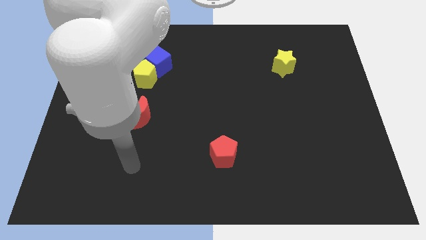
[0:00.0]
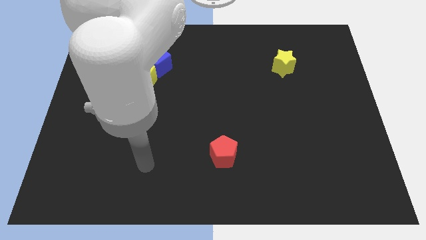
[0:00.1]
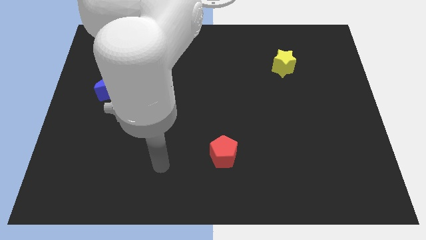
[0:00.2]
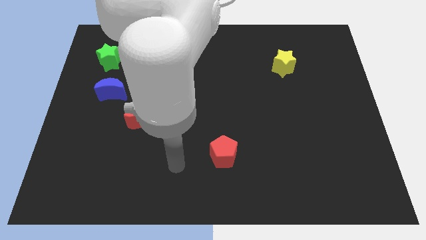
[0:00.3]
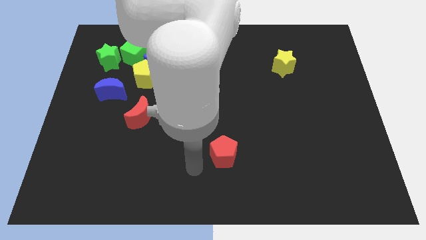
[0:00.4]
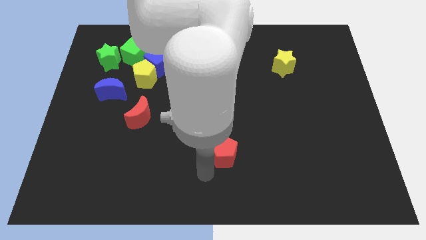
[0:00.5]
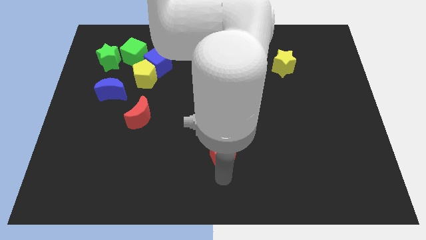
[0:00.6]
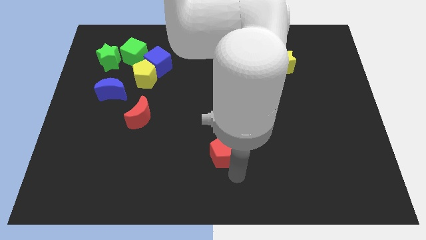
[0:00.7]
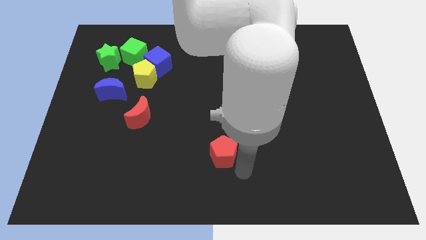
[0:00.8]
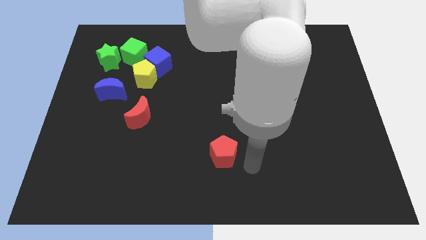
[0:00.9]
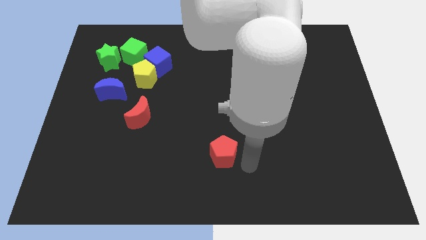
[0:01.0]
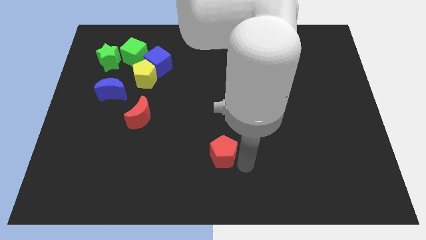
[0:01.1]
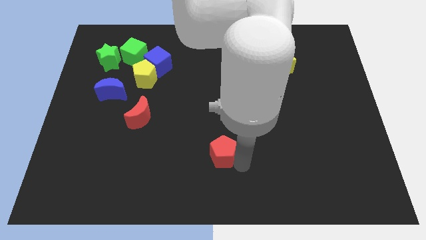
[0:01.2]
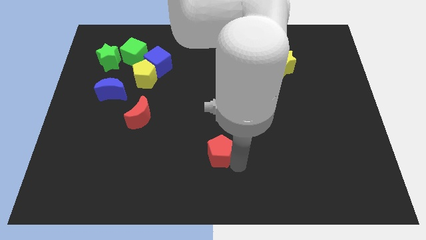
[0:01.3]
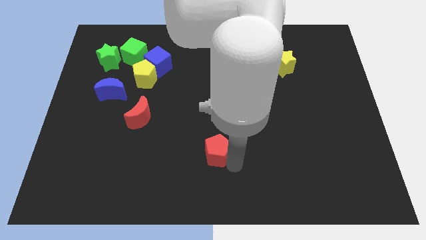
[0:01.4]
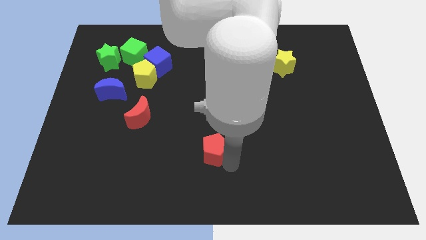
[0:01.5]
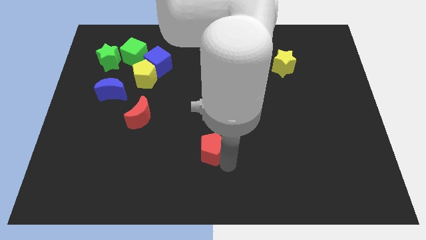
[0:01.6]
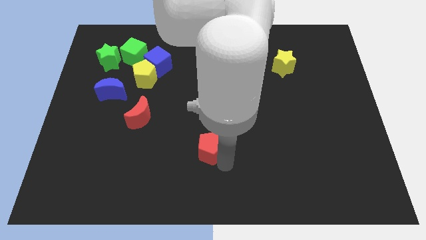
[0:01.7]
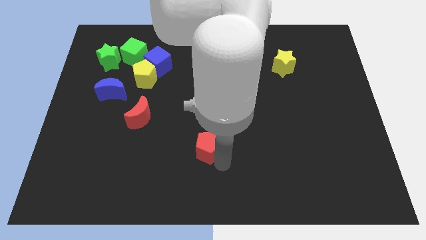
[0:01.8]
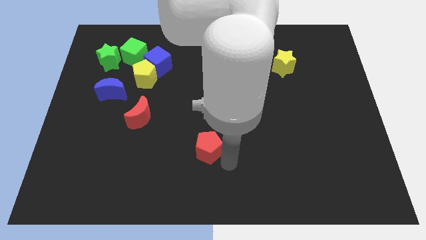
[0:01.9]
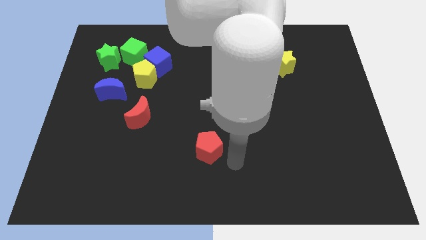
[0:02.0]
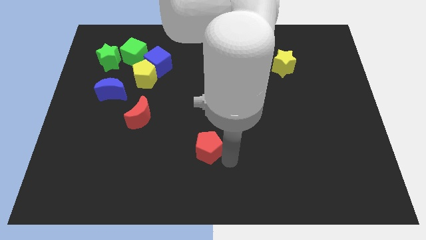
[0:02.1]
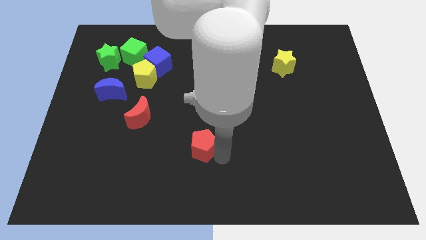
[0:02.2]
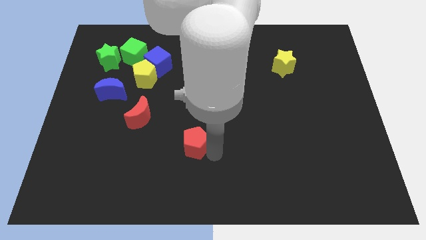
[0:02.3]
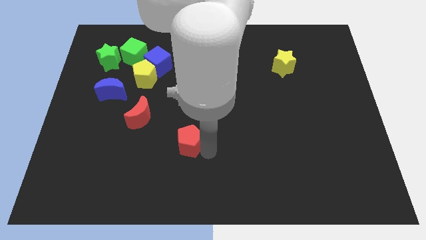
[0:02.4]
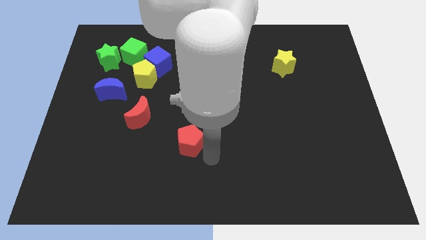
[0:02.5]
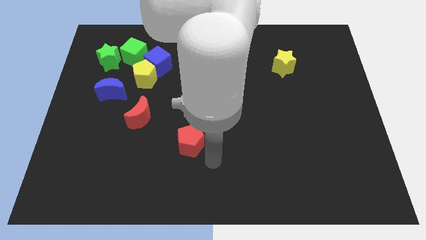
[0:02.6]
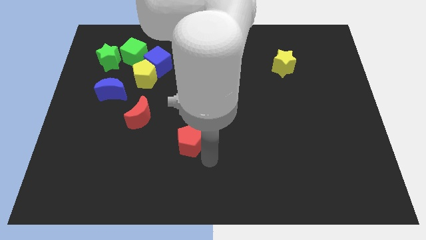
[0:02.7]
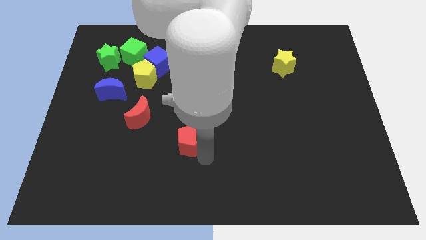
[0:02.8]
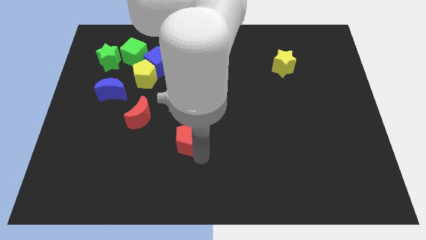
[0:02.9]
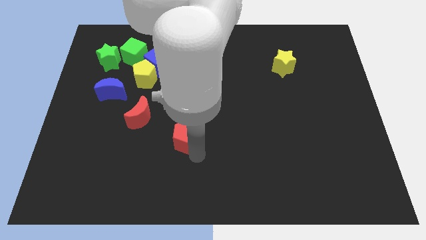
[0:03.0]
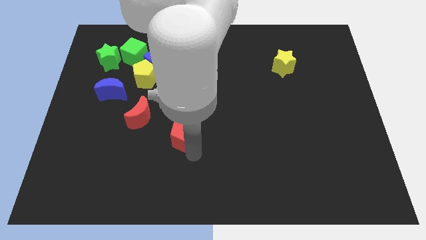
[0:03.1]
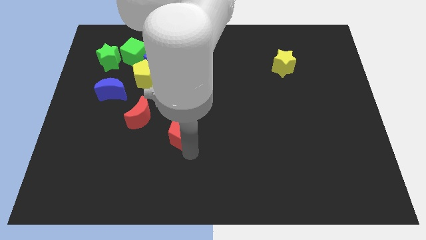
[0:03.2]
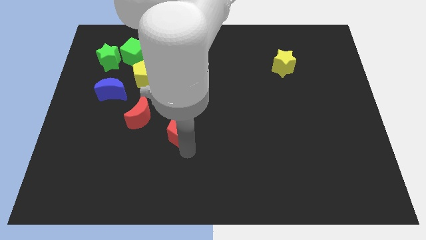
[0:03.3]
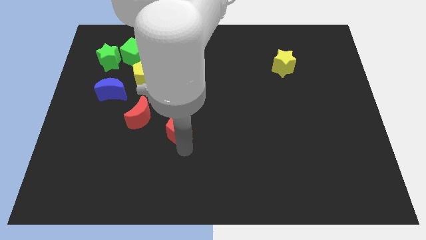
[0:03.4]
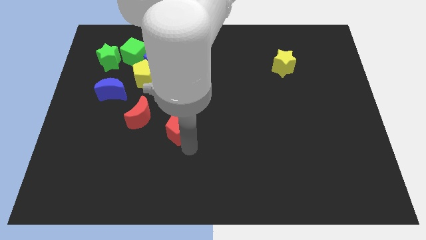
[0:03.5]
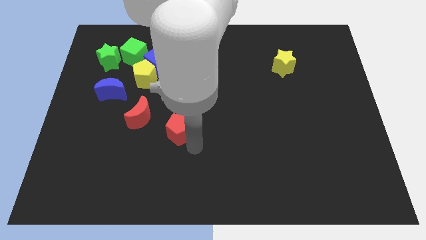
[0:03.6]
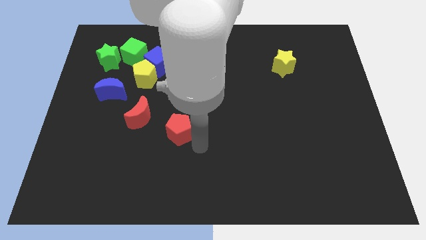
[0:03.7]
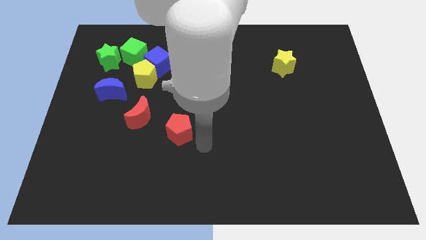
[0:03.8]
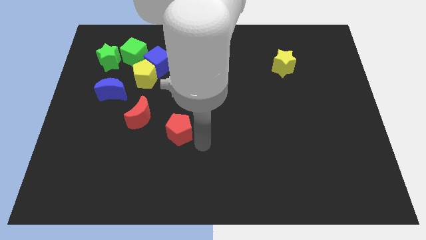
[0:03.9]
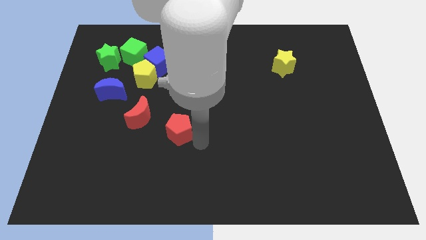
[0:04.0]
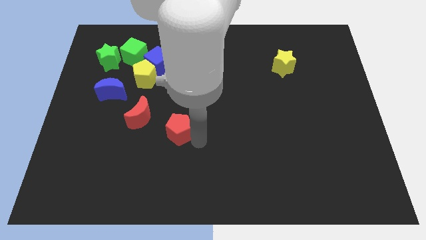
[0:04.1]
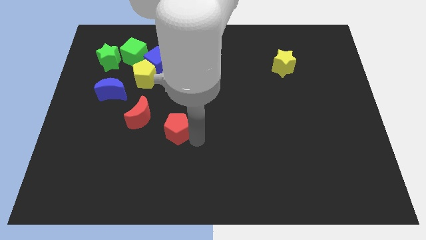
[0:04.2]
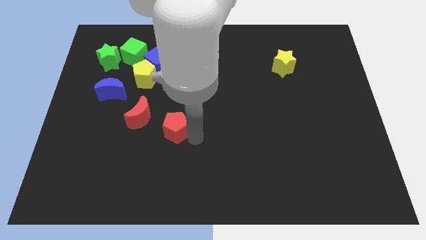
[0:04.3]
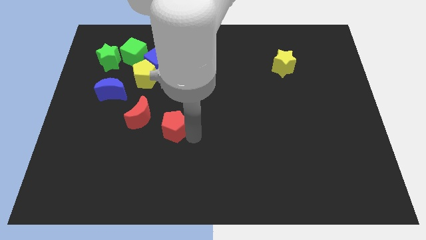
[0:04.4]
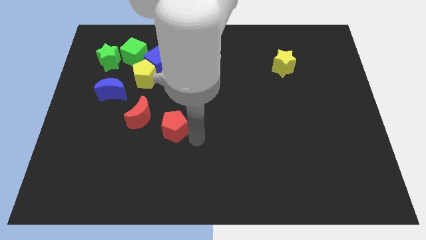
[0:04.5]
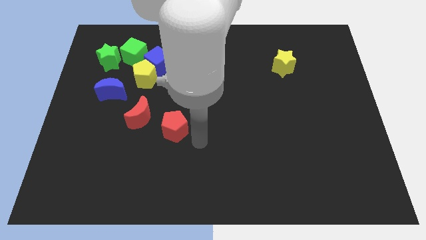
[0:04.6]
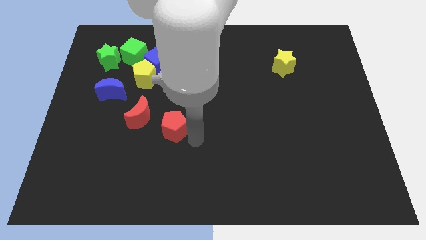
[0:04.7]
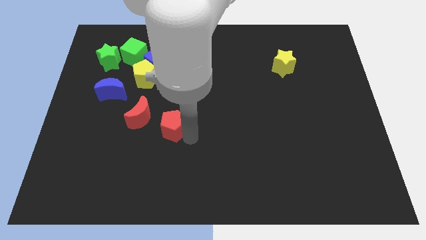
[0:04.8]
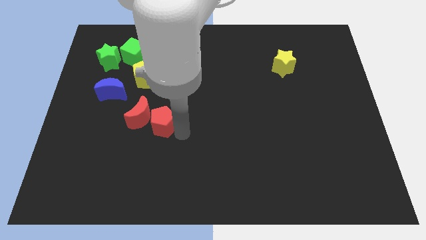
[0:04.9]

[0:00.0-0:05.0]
slide the red pentagon towards the red moon

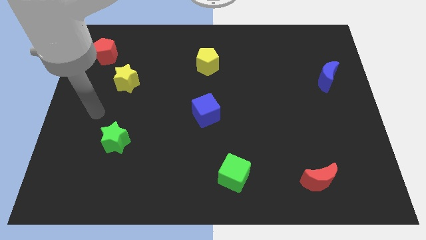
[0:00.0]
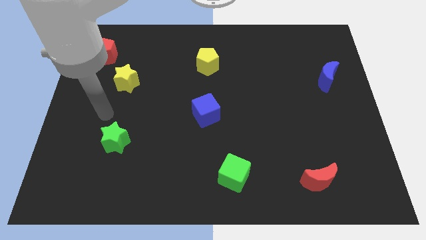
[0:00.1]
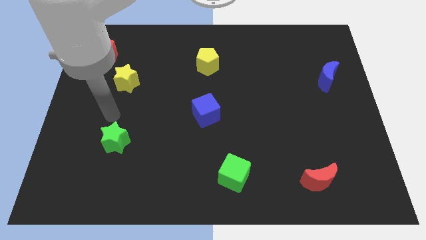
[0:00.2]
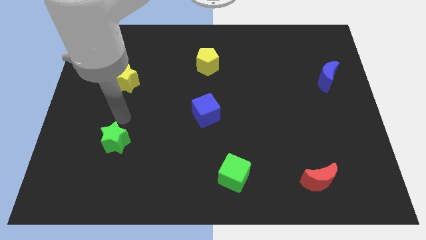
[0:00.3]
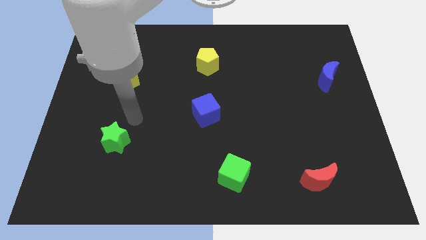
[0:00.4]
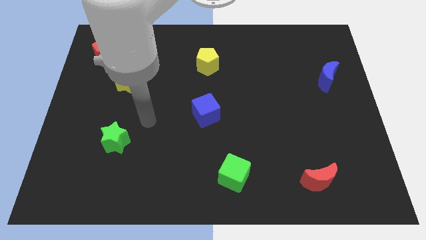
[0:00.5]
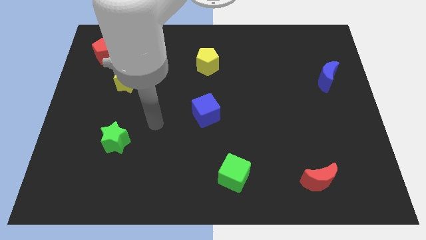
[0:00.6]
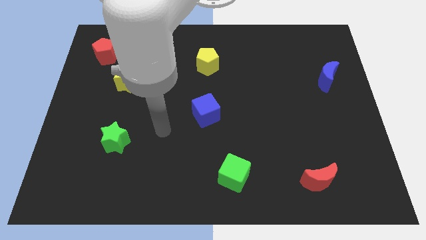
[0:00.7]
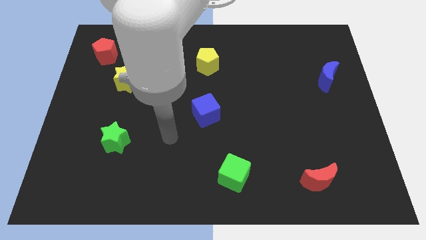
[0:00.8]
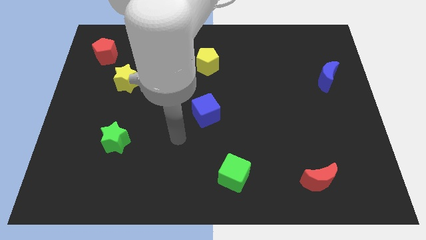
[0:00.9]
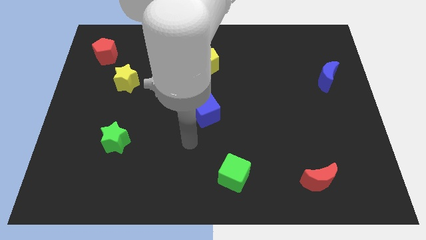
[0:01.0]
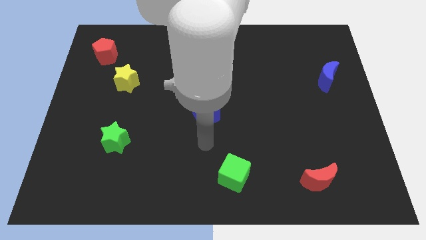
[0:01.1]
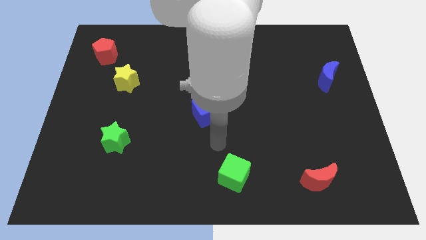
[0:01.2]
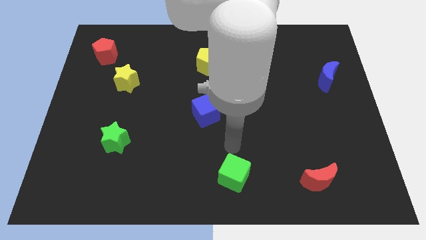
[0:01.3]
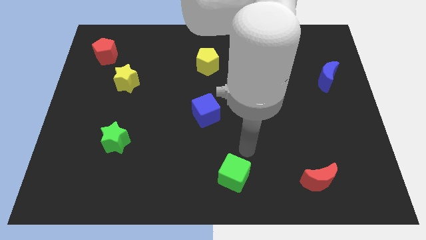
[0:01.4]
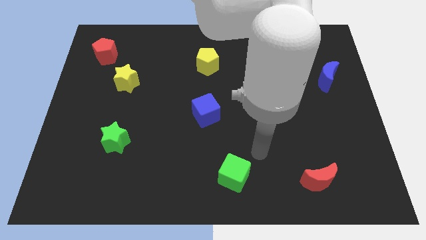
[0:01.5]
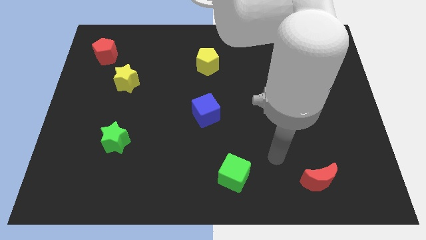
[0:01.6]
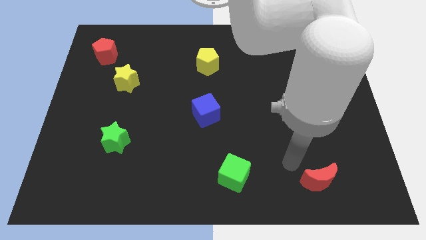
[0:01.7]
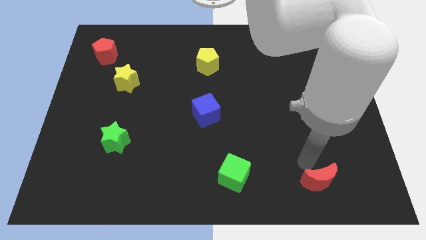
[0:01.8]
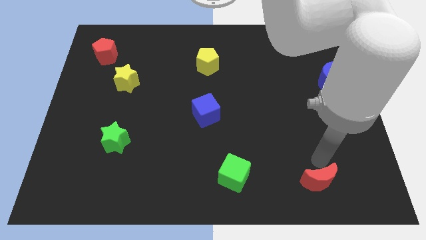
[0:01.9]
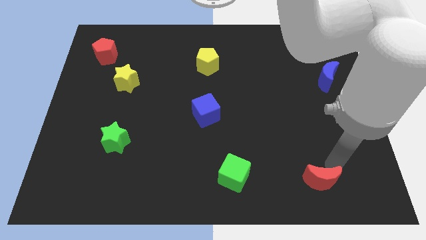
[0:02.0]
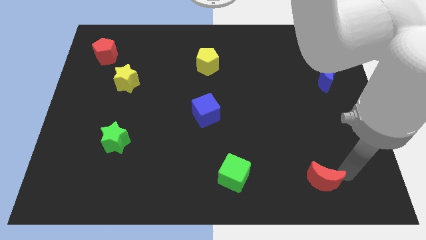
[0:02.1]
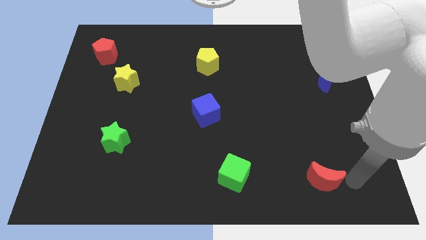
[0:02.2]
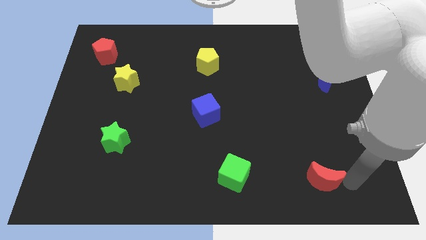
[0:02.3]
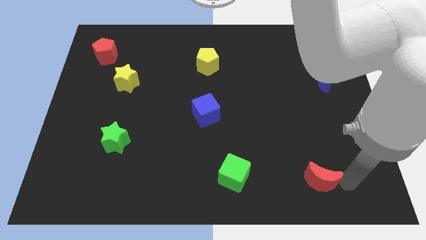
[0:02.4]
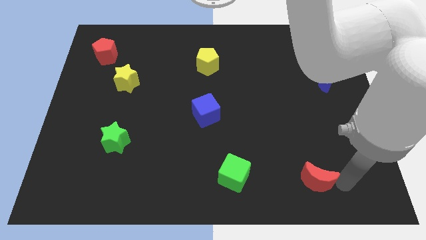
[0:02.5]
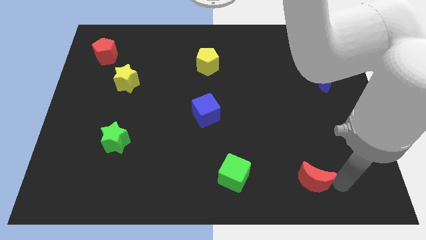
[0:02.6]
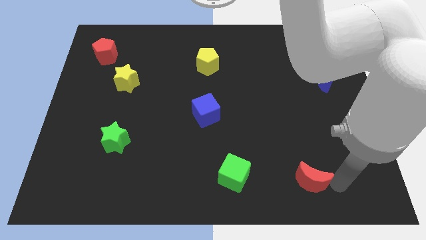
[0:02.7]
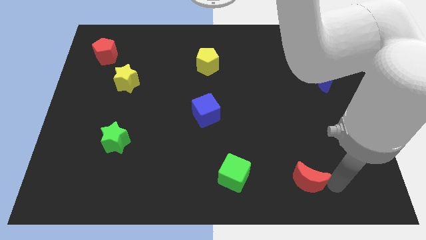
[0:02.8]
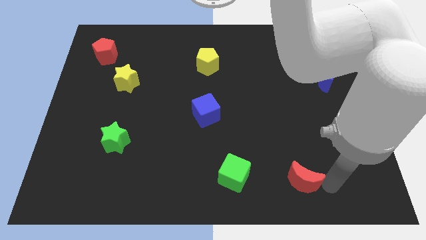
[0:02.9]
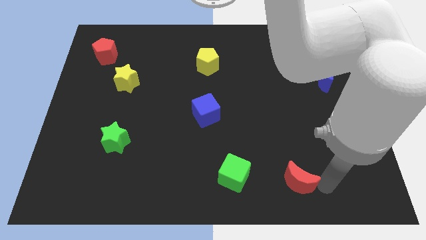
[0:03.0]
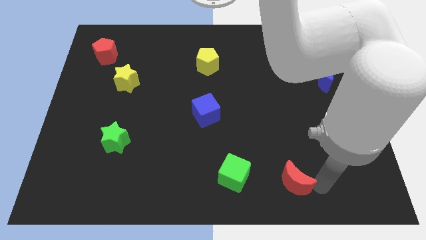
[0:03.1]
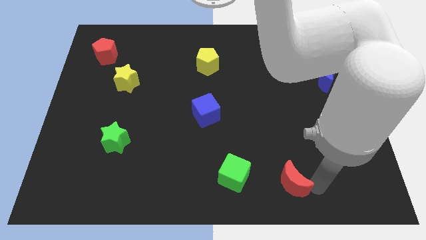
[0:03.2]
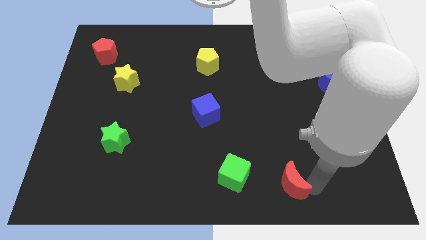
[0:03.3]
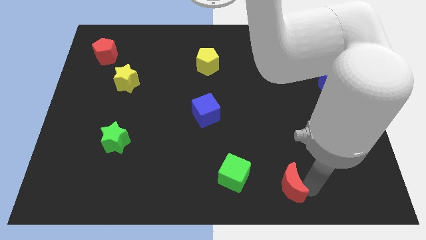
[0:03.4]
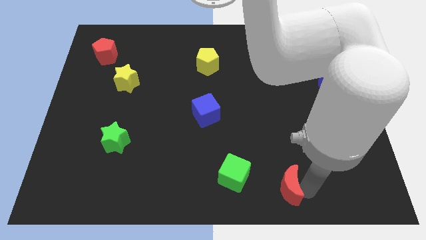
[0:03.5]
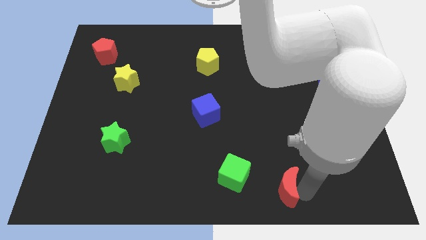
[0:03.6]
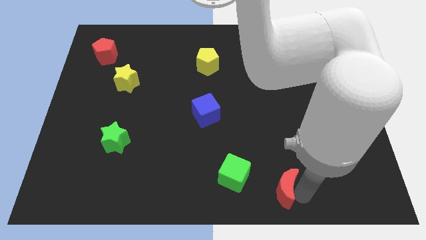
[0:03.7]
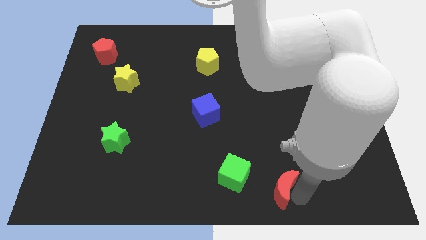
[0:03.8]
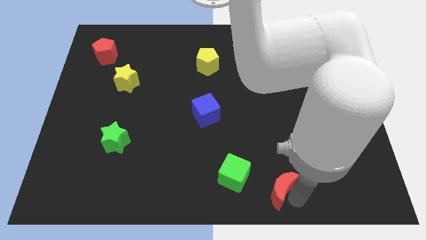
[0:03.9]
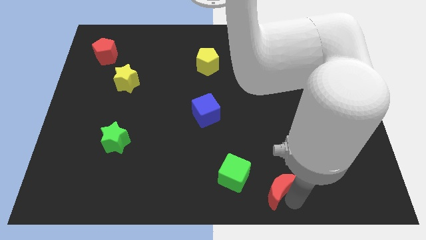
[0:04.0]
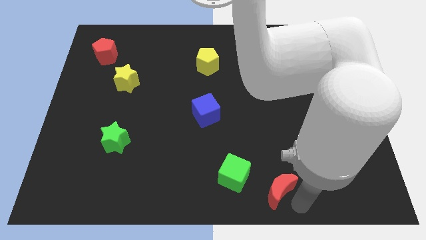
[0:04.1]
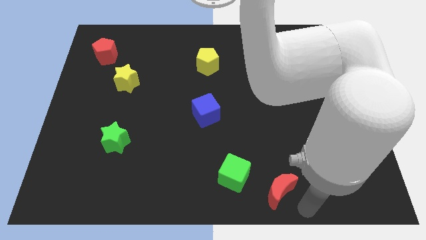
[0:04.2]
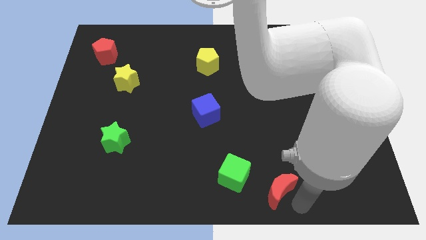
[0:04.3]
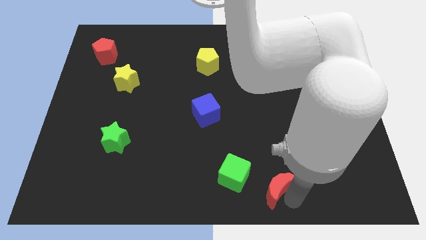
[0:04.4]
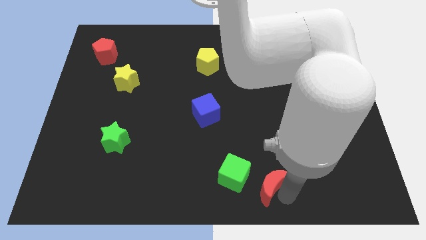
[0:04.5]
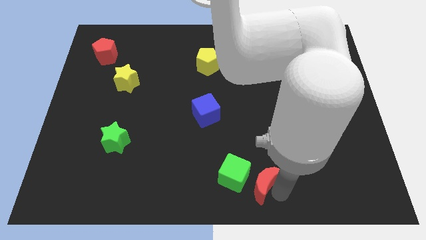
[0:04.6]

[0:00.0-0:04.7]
put the red moon to the green cube
